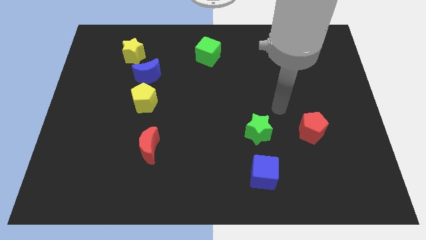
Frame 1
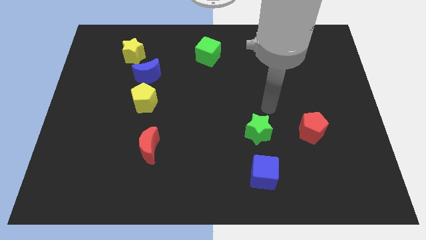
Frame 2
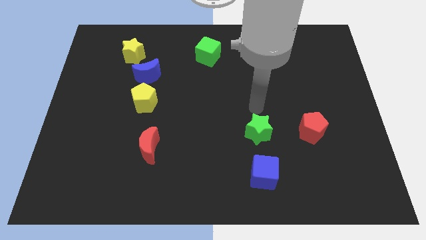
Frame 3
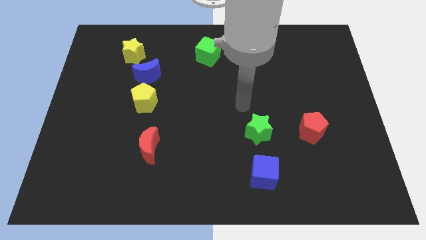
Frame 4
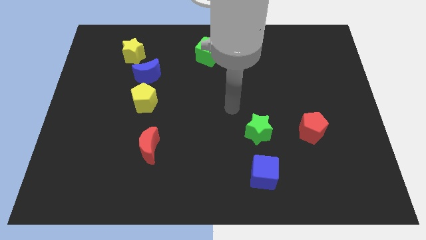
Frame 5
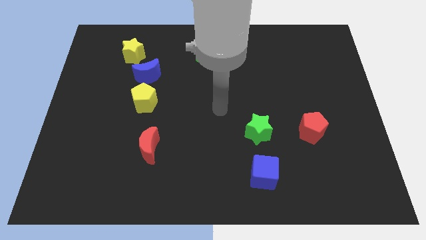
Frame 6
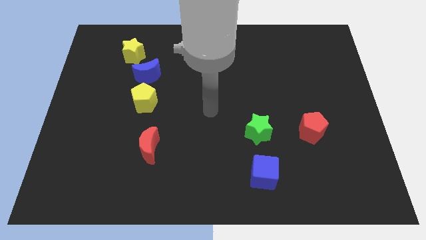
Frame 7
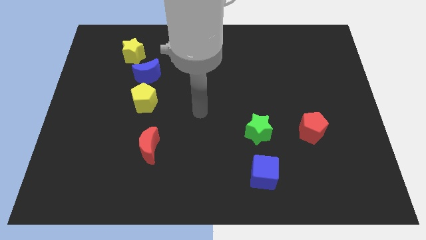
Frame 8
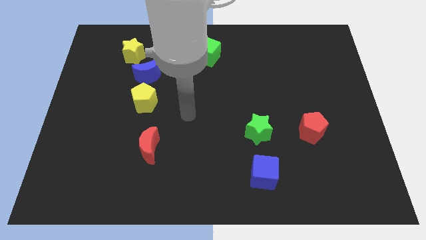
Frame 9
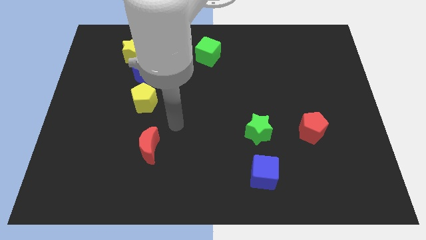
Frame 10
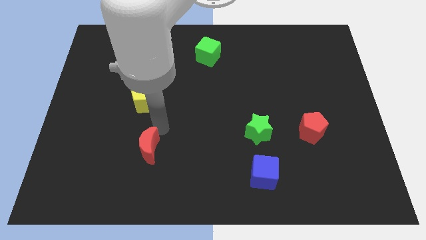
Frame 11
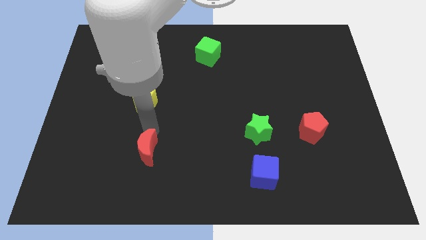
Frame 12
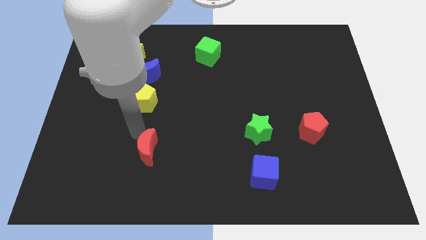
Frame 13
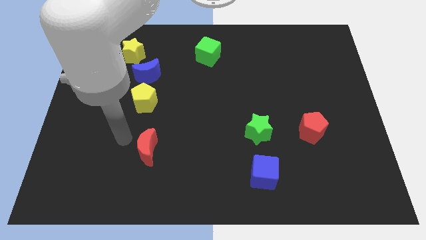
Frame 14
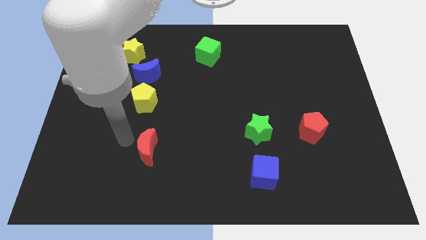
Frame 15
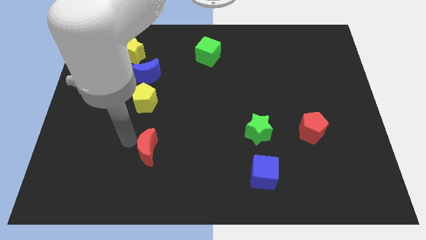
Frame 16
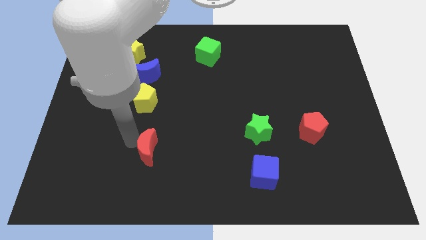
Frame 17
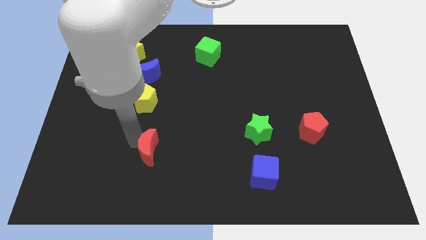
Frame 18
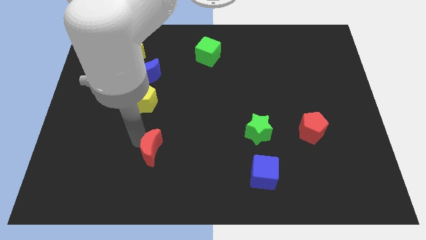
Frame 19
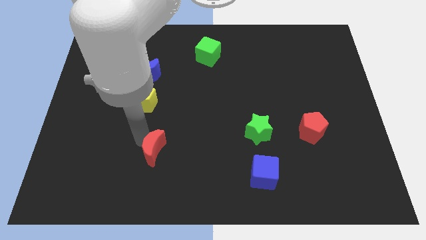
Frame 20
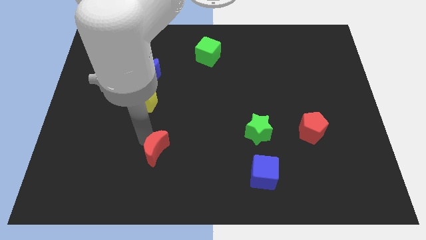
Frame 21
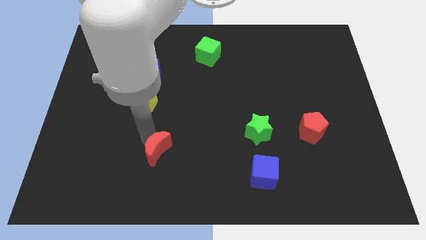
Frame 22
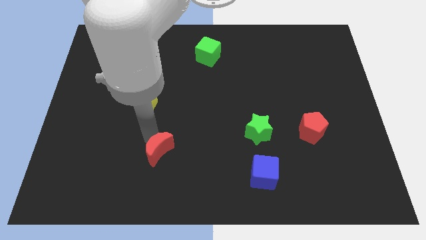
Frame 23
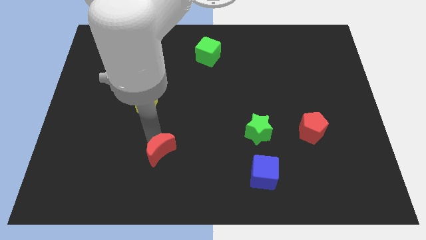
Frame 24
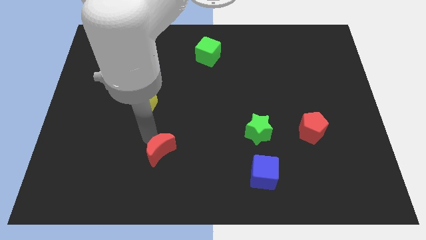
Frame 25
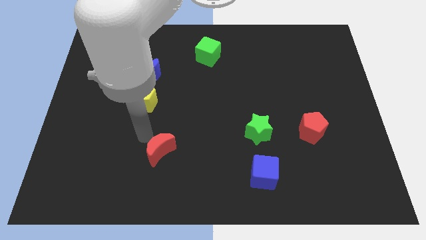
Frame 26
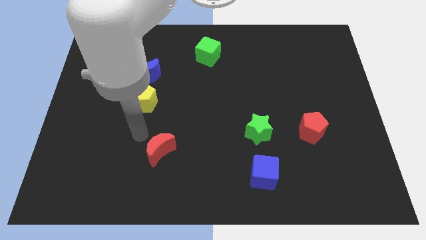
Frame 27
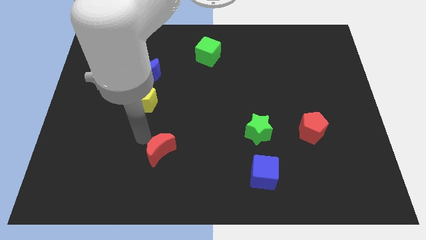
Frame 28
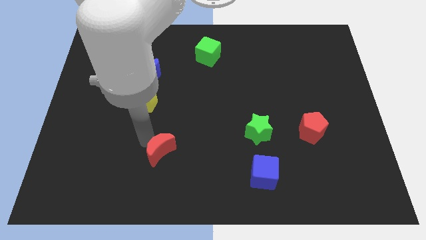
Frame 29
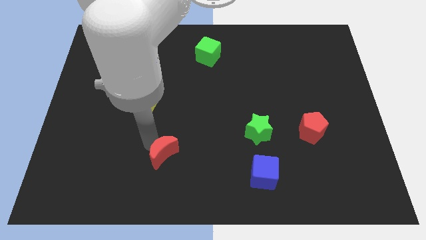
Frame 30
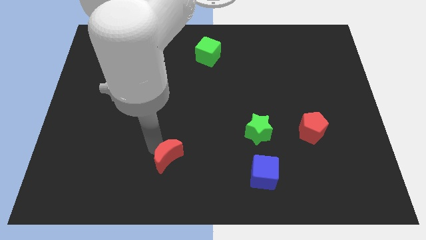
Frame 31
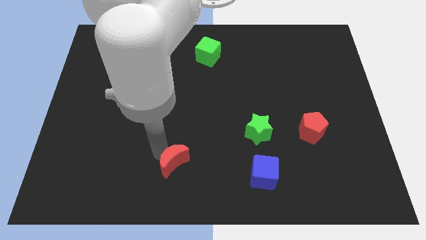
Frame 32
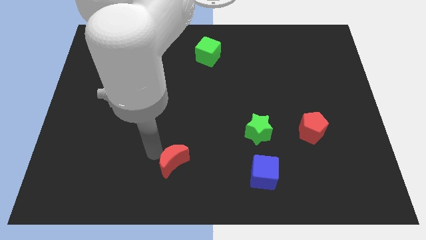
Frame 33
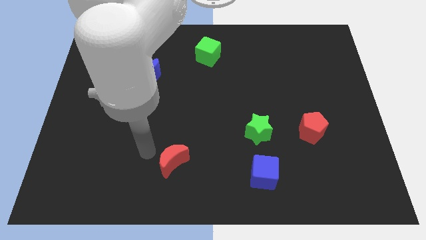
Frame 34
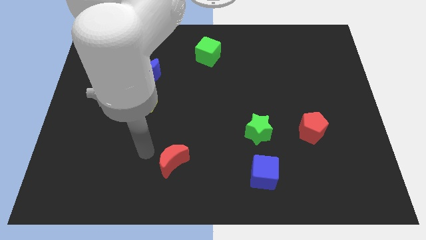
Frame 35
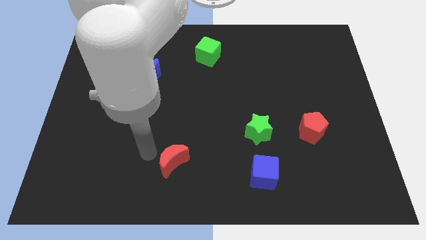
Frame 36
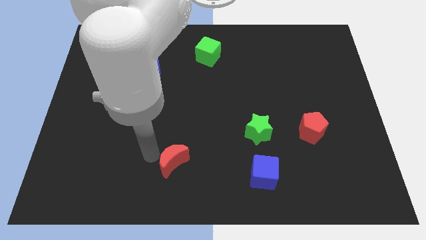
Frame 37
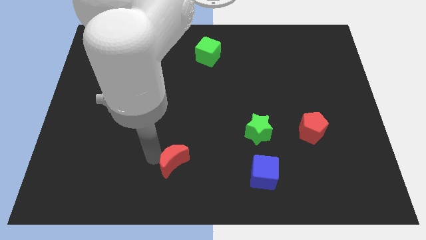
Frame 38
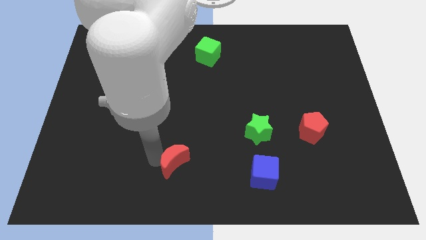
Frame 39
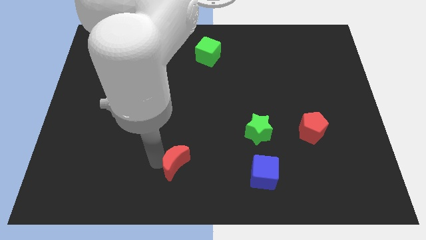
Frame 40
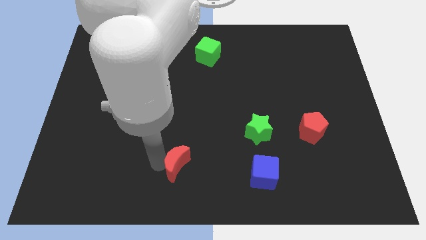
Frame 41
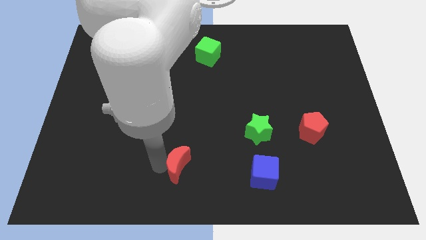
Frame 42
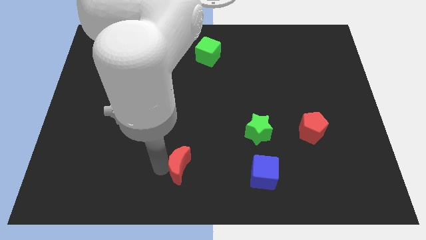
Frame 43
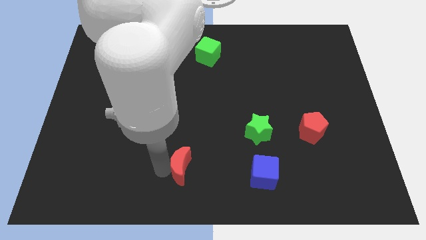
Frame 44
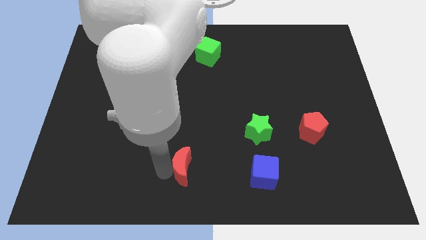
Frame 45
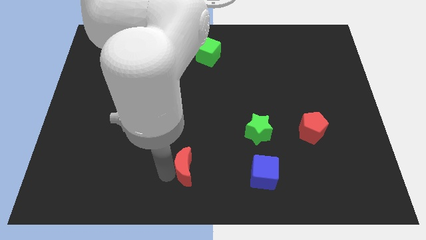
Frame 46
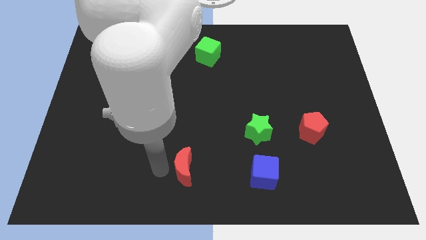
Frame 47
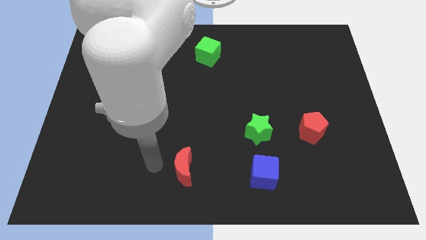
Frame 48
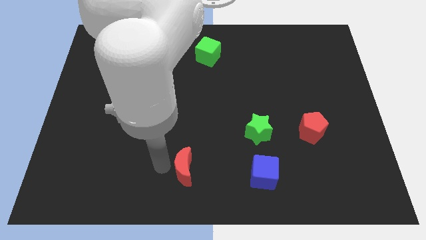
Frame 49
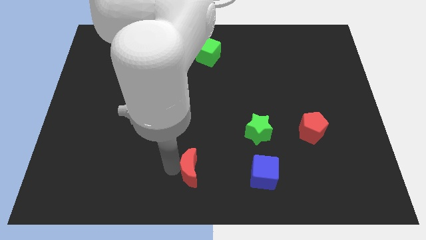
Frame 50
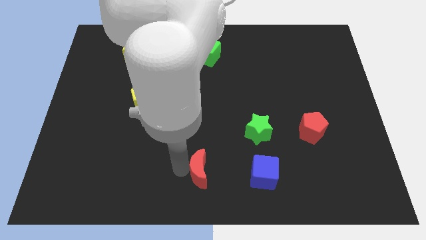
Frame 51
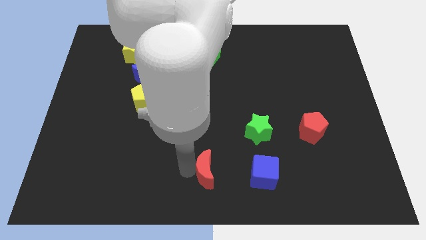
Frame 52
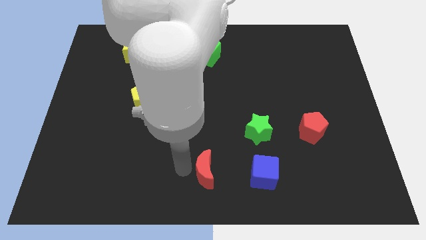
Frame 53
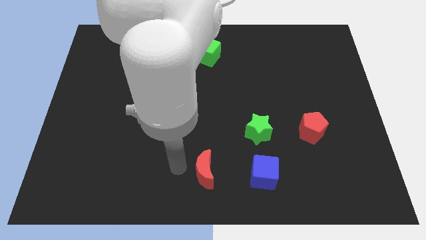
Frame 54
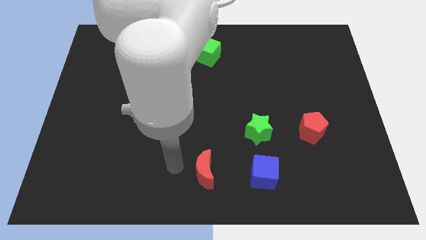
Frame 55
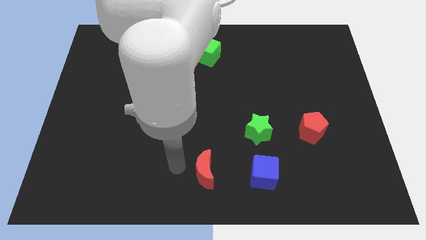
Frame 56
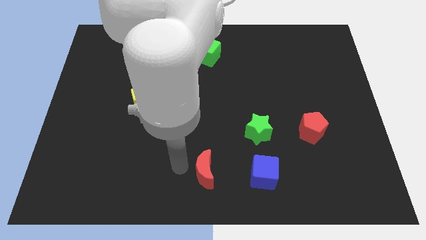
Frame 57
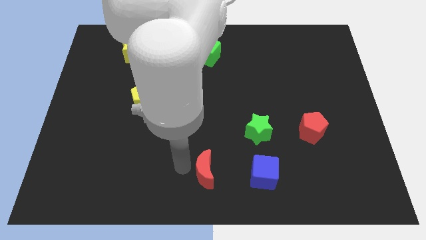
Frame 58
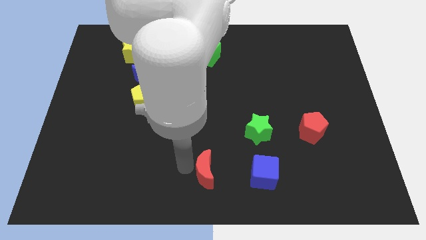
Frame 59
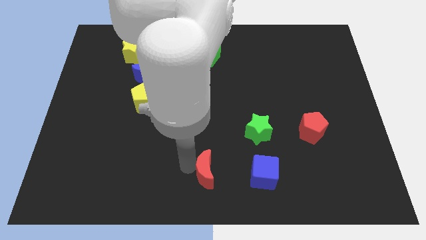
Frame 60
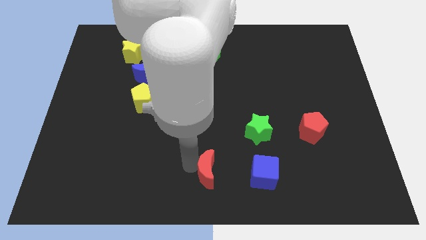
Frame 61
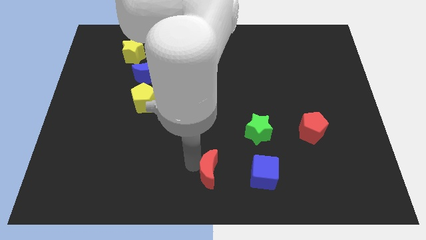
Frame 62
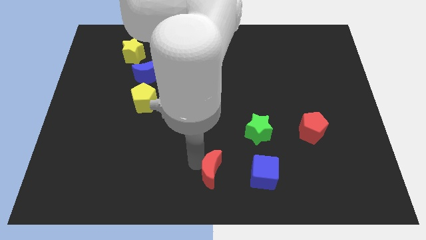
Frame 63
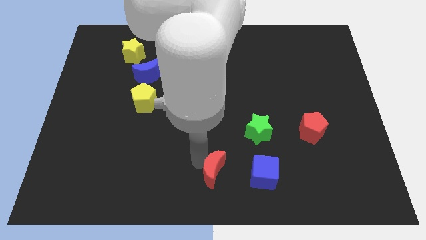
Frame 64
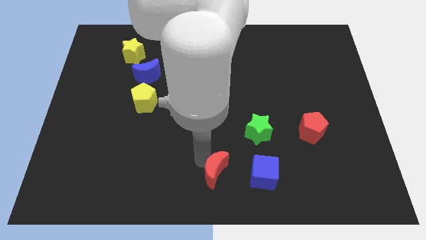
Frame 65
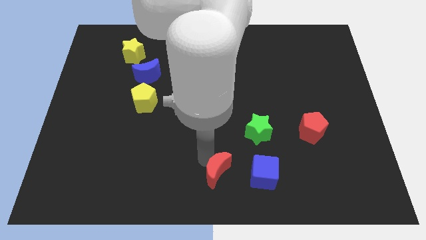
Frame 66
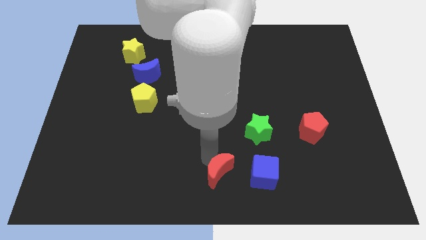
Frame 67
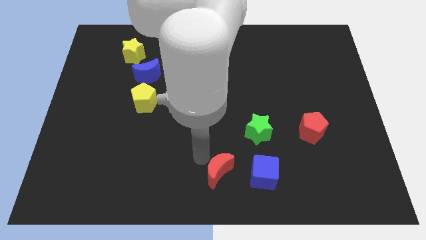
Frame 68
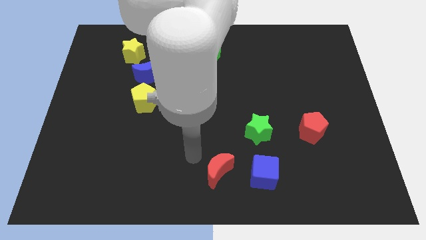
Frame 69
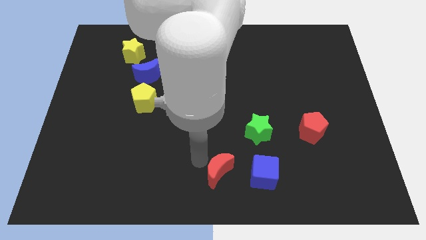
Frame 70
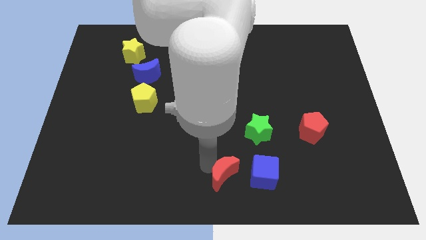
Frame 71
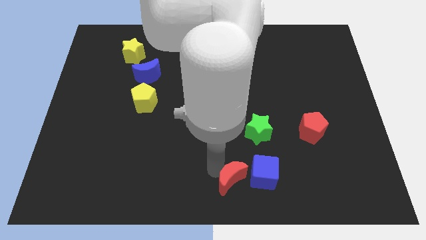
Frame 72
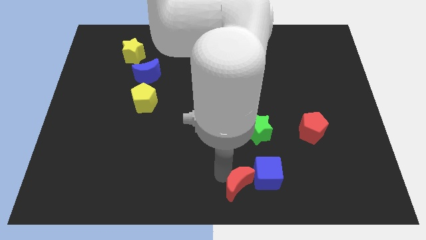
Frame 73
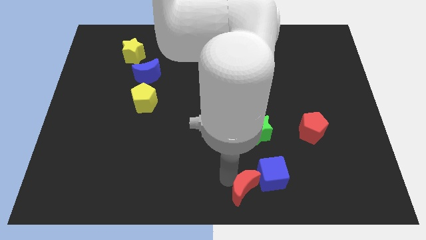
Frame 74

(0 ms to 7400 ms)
put the red moon to the bottom side of the green star
